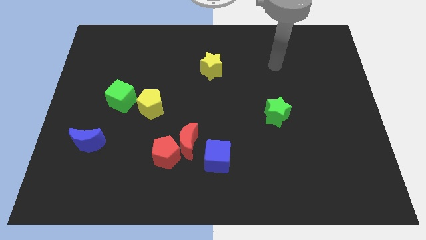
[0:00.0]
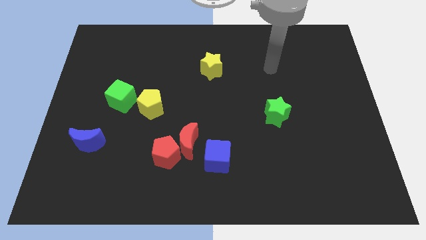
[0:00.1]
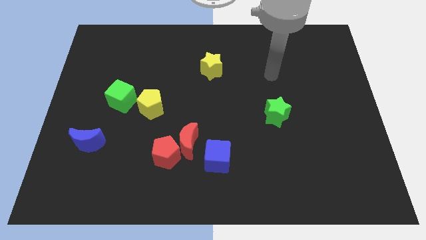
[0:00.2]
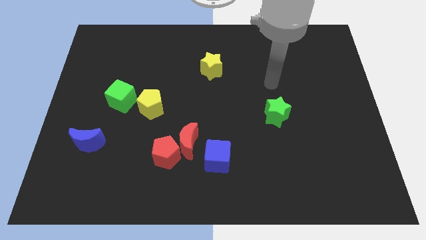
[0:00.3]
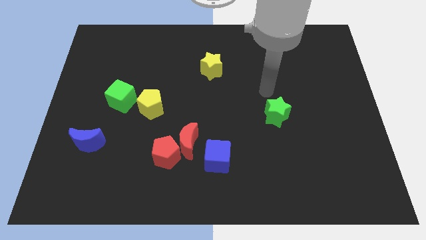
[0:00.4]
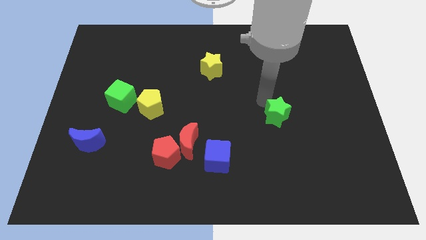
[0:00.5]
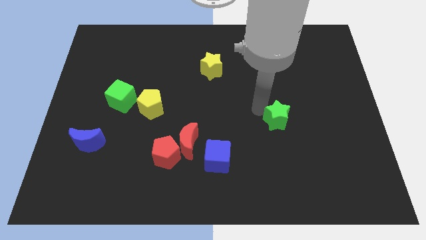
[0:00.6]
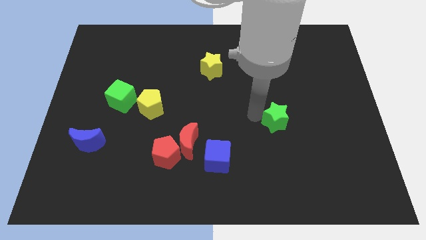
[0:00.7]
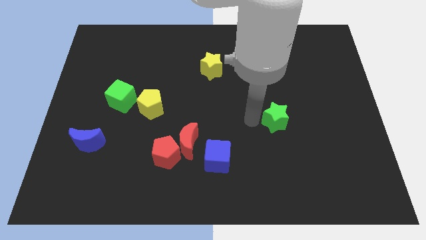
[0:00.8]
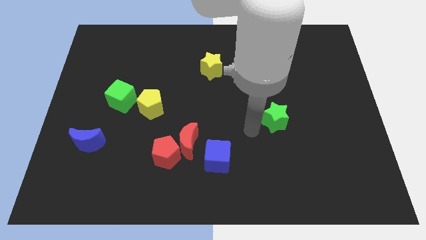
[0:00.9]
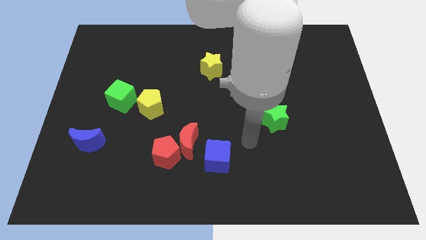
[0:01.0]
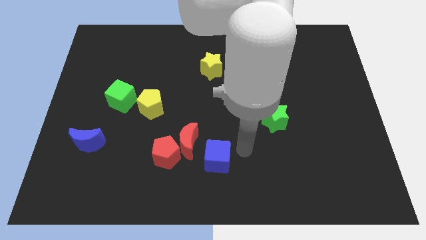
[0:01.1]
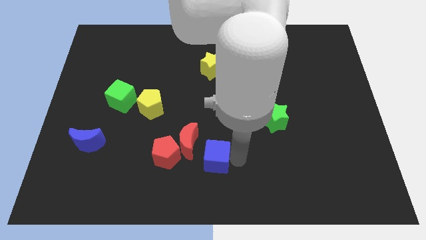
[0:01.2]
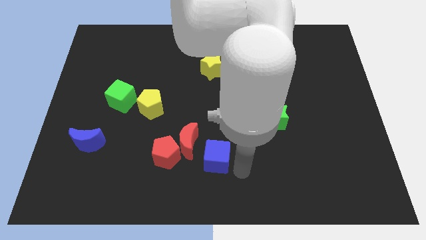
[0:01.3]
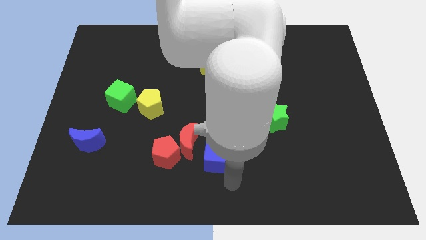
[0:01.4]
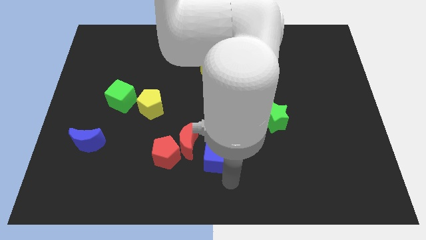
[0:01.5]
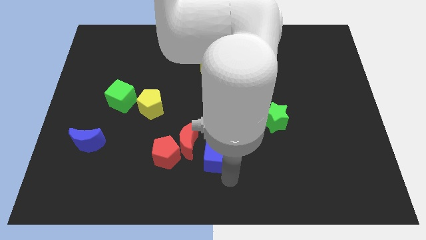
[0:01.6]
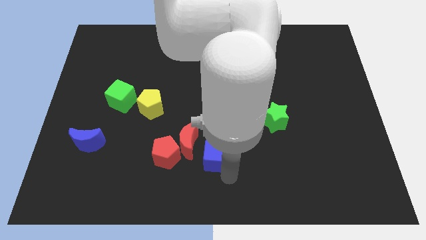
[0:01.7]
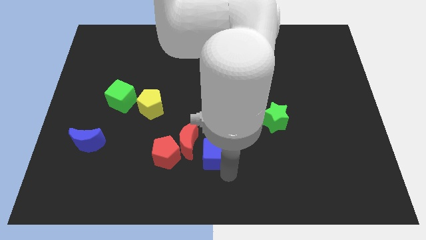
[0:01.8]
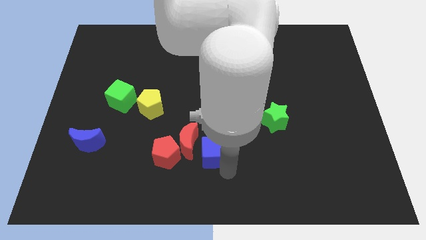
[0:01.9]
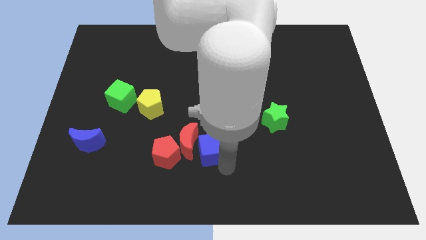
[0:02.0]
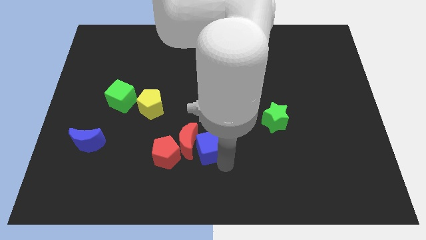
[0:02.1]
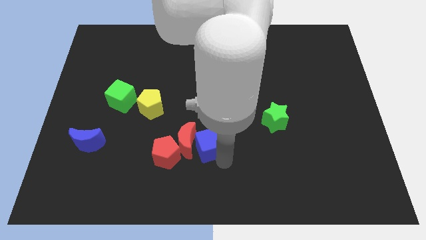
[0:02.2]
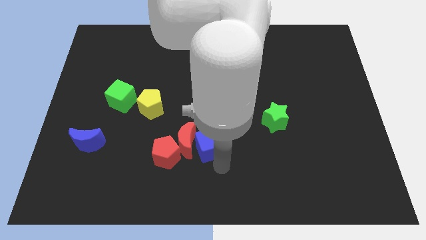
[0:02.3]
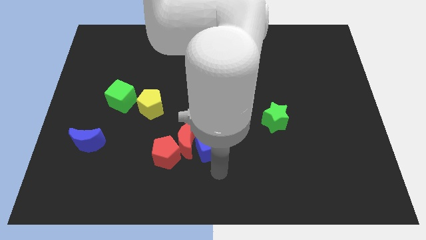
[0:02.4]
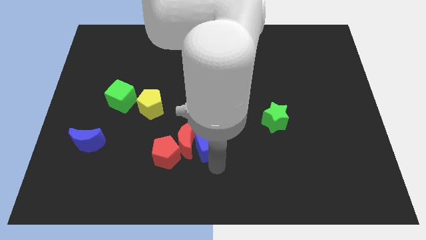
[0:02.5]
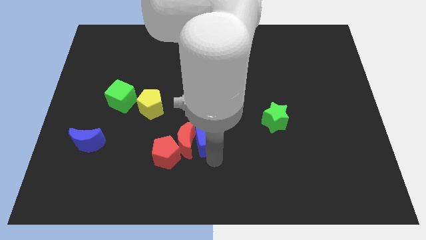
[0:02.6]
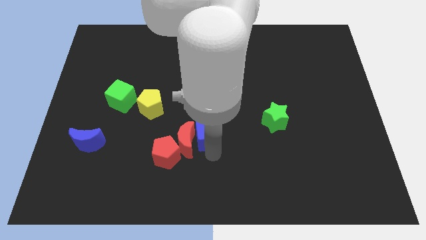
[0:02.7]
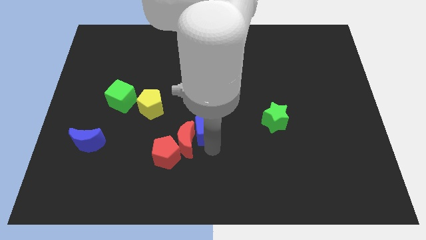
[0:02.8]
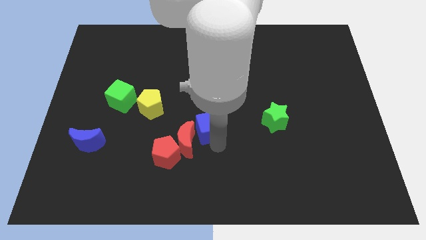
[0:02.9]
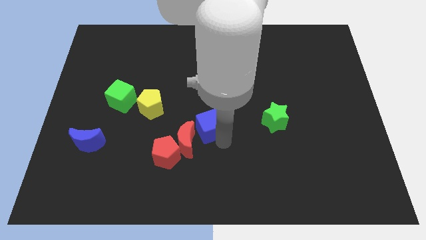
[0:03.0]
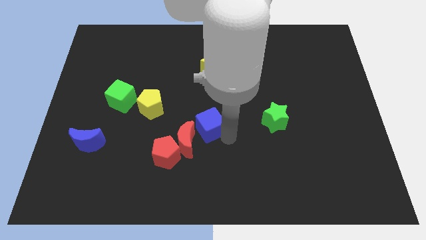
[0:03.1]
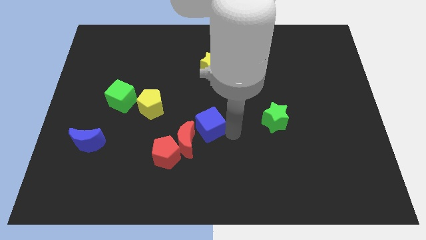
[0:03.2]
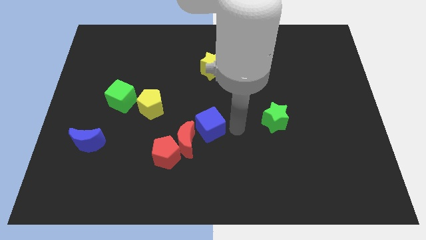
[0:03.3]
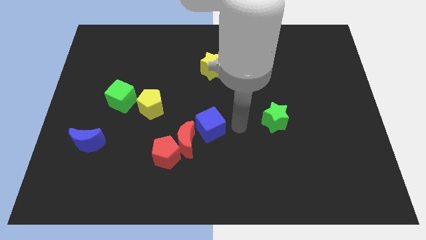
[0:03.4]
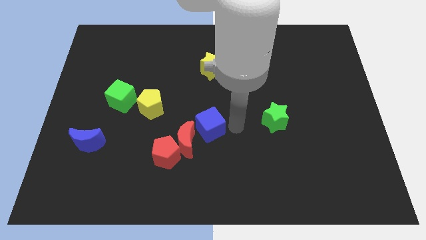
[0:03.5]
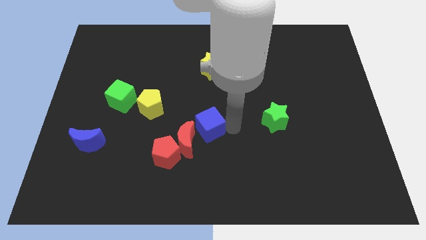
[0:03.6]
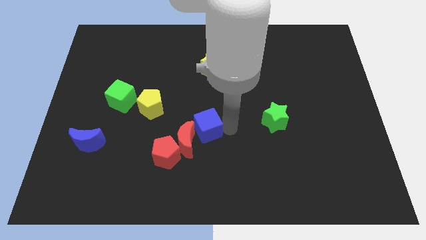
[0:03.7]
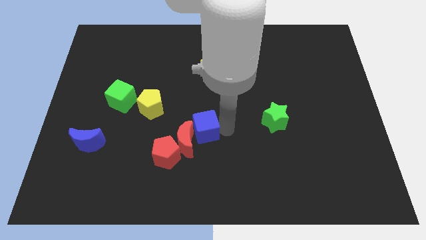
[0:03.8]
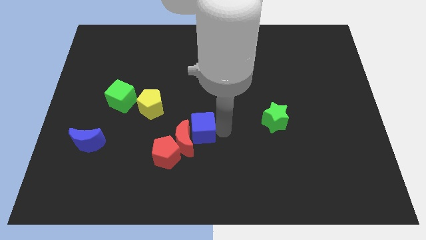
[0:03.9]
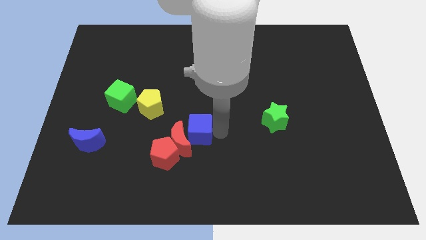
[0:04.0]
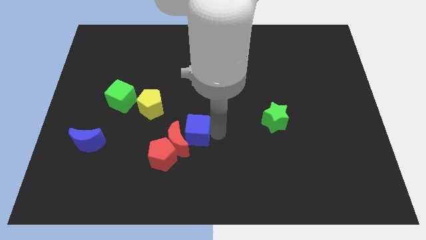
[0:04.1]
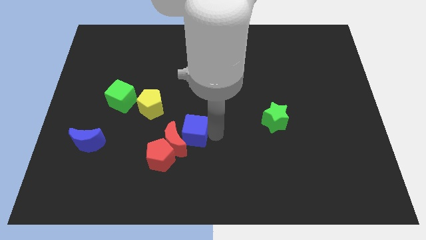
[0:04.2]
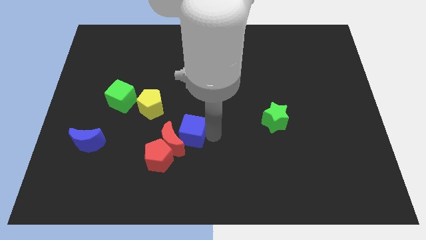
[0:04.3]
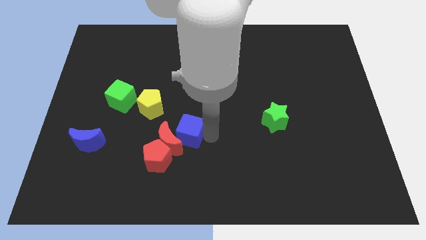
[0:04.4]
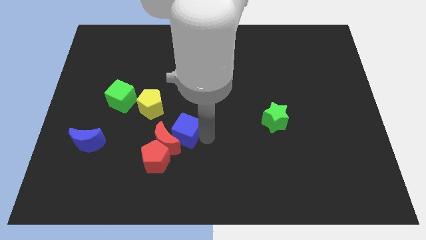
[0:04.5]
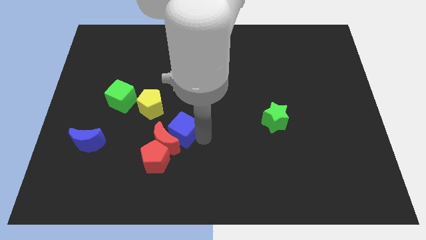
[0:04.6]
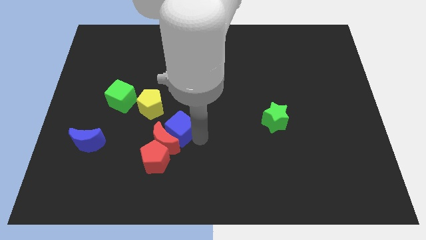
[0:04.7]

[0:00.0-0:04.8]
push the blue cube above the red pentagon

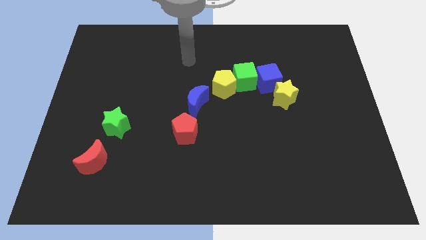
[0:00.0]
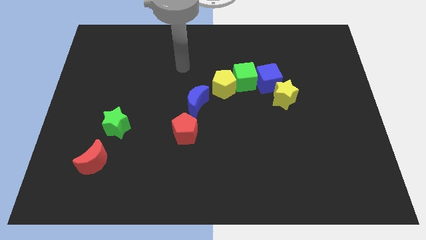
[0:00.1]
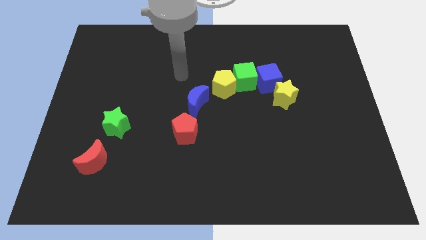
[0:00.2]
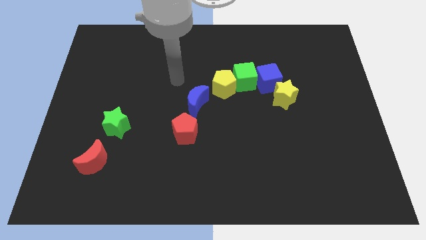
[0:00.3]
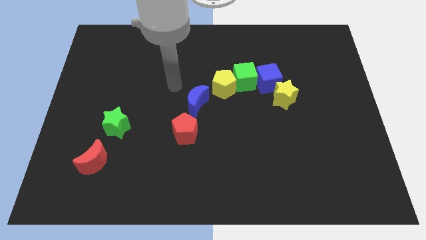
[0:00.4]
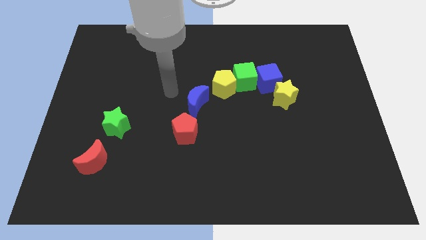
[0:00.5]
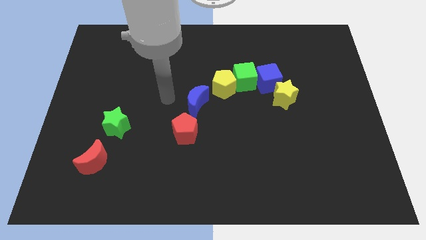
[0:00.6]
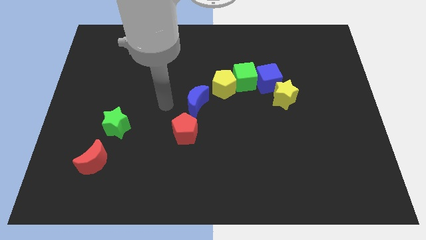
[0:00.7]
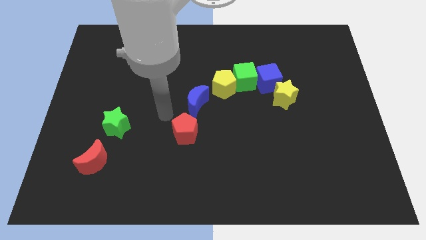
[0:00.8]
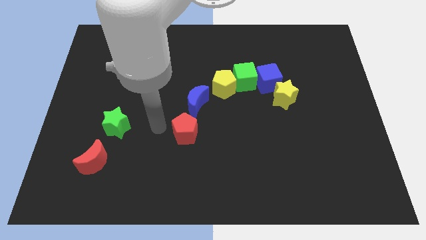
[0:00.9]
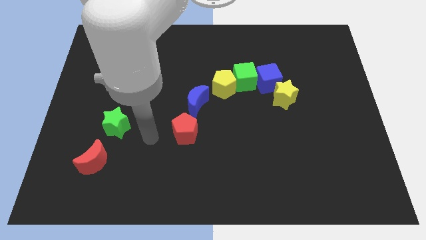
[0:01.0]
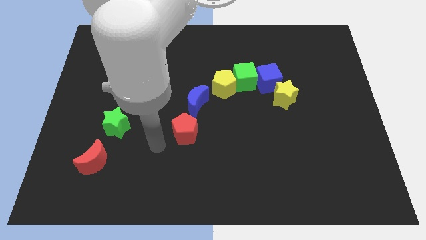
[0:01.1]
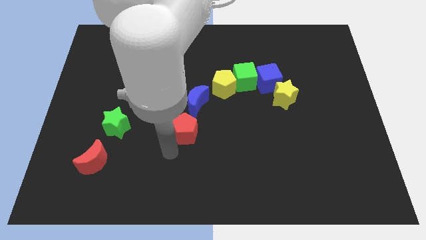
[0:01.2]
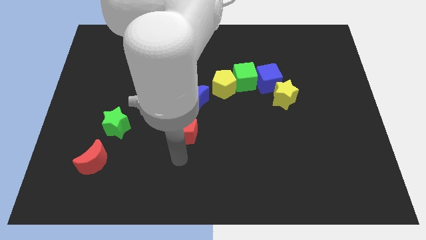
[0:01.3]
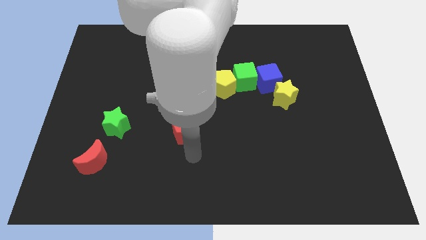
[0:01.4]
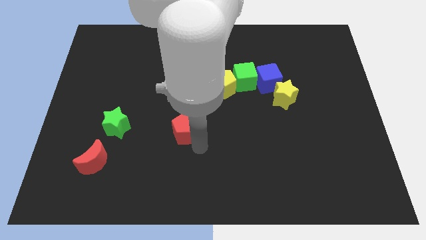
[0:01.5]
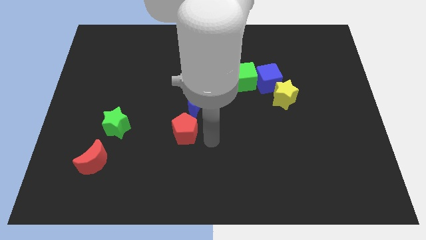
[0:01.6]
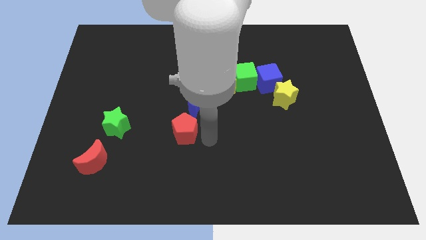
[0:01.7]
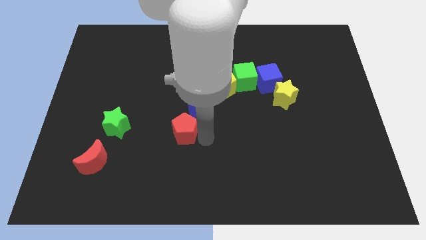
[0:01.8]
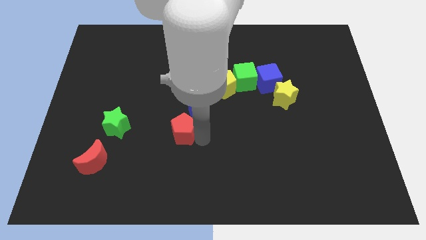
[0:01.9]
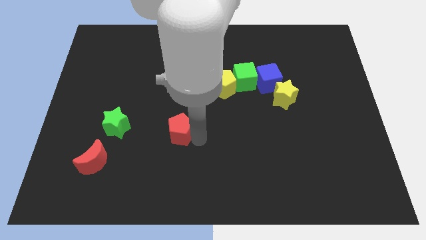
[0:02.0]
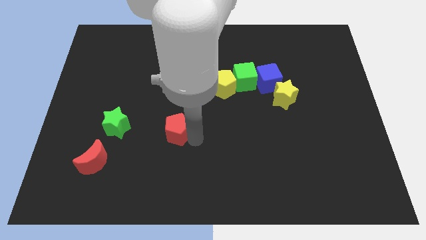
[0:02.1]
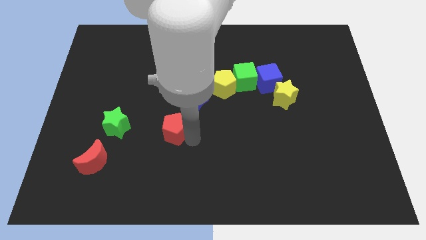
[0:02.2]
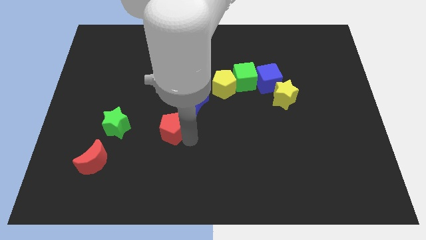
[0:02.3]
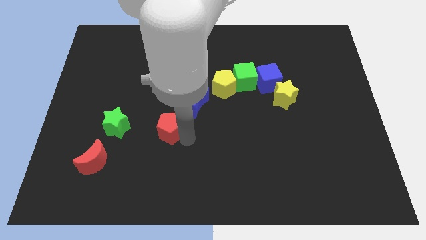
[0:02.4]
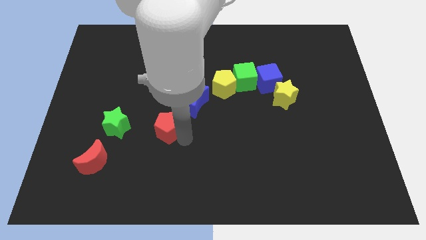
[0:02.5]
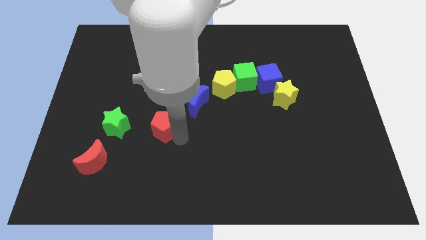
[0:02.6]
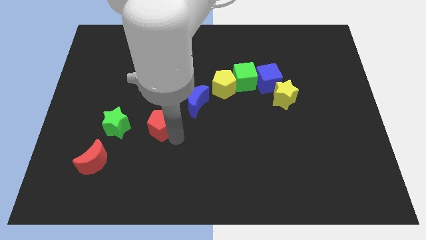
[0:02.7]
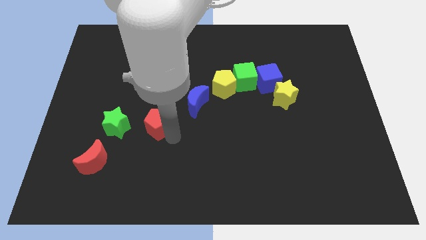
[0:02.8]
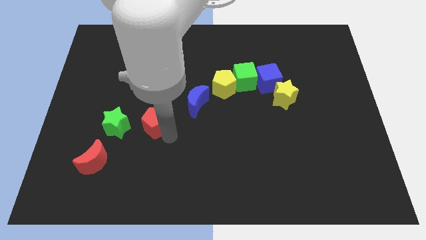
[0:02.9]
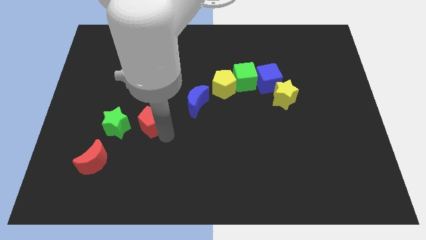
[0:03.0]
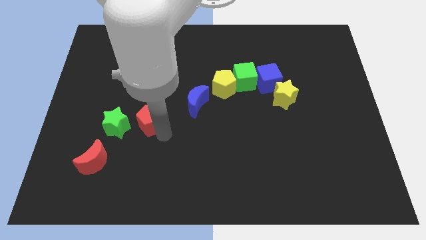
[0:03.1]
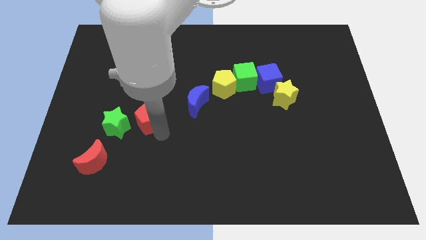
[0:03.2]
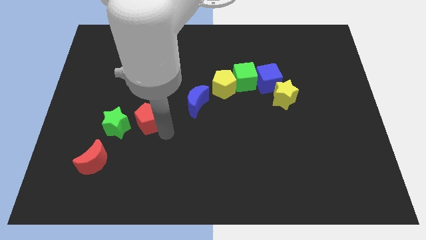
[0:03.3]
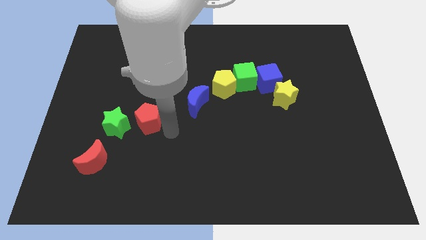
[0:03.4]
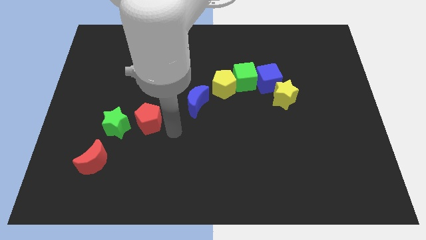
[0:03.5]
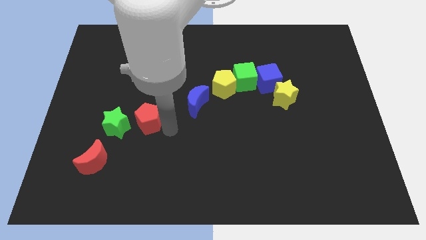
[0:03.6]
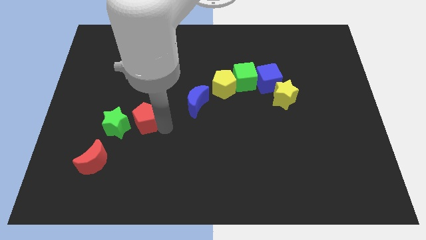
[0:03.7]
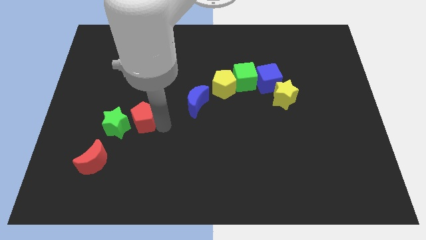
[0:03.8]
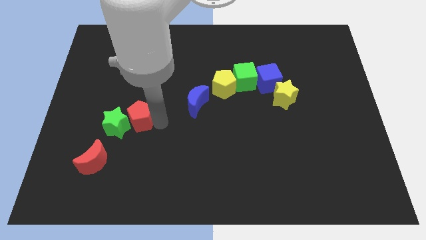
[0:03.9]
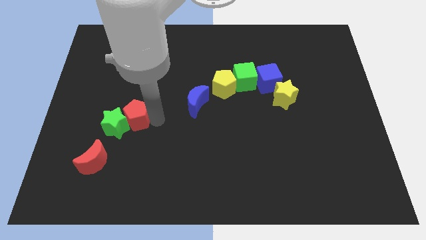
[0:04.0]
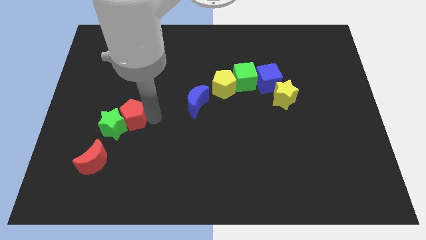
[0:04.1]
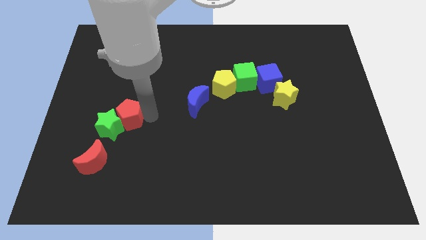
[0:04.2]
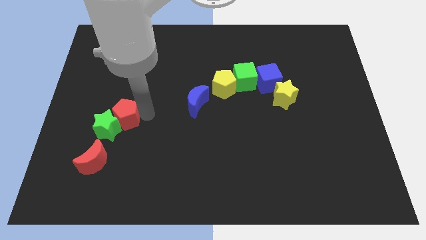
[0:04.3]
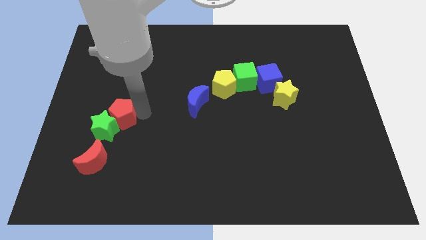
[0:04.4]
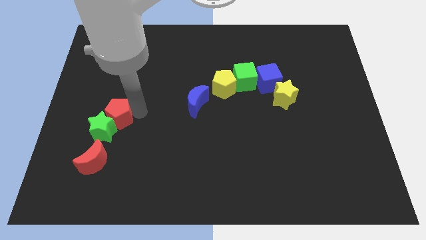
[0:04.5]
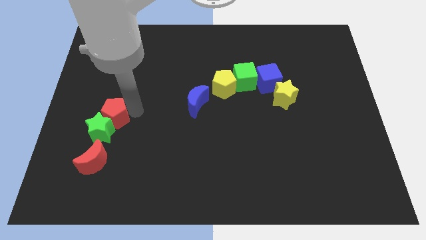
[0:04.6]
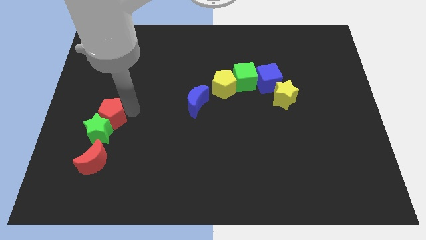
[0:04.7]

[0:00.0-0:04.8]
slide the red pentagon diagonally up and to the left of the green star
